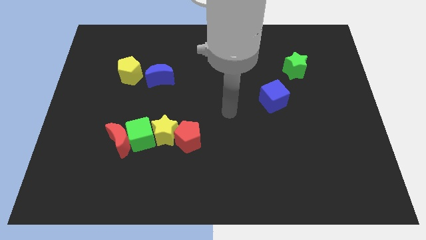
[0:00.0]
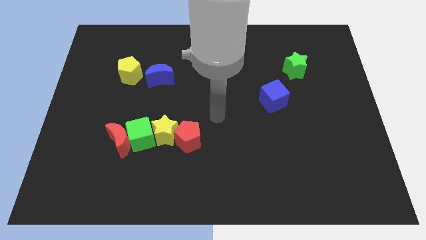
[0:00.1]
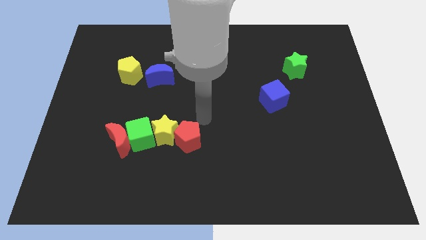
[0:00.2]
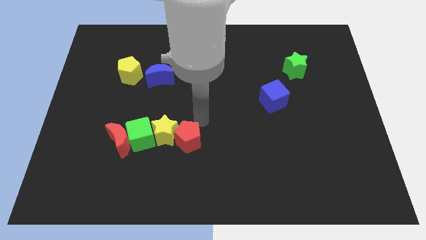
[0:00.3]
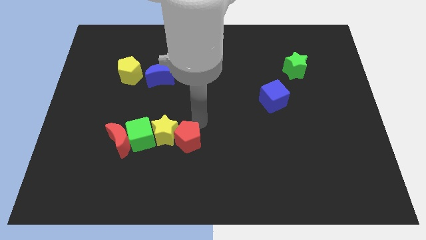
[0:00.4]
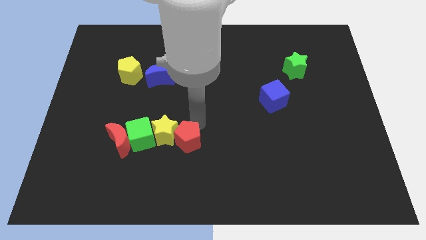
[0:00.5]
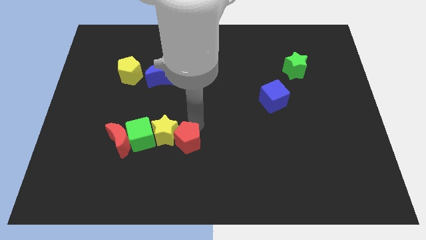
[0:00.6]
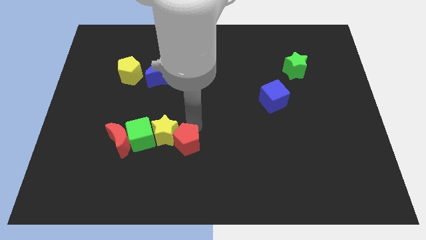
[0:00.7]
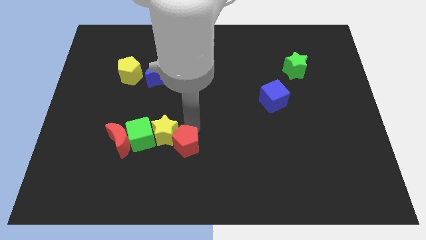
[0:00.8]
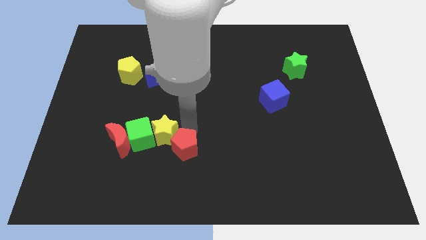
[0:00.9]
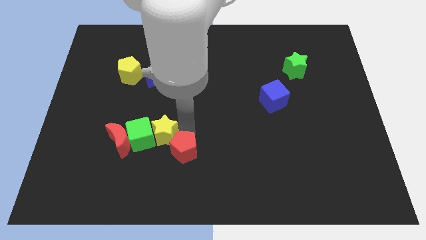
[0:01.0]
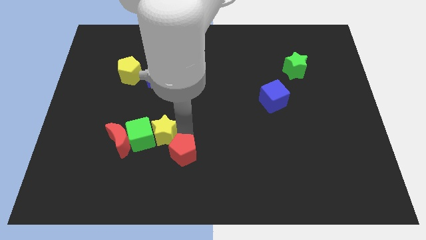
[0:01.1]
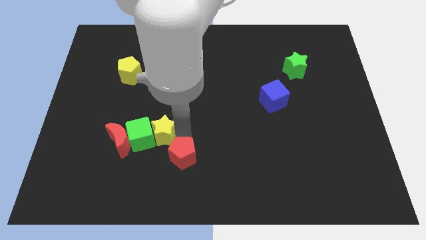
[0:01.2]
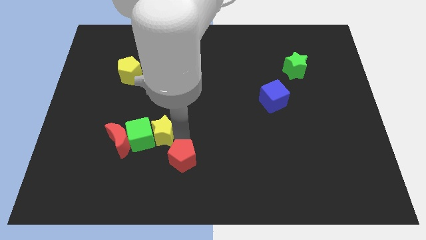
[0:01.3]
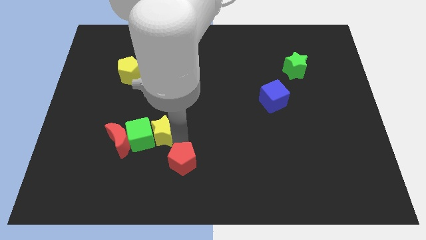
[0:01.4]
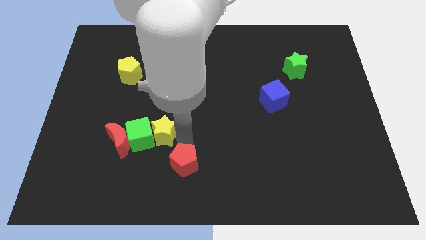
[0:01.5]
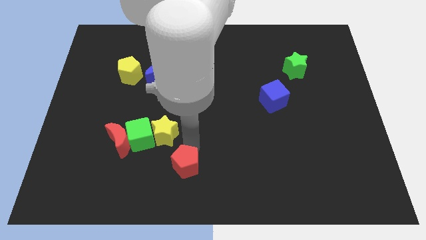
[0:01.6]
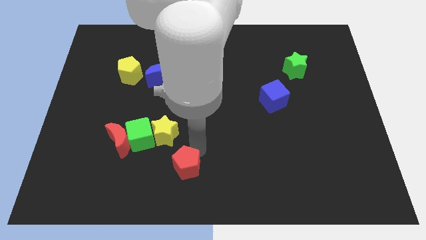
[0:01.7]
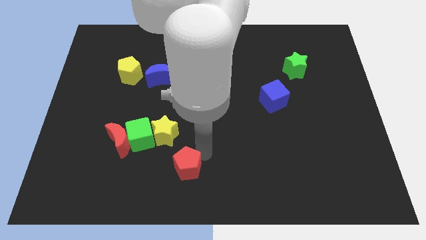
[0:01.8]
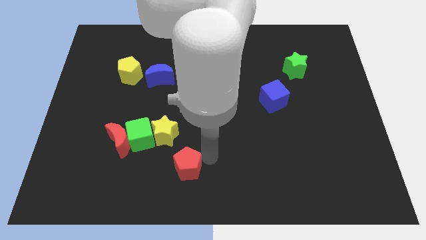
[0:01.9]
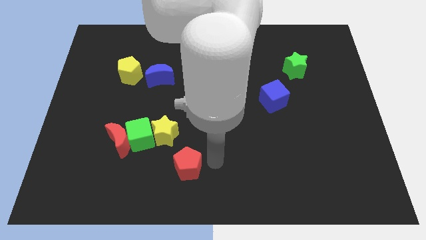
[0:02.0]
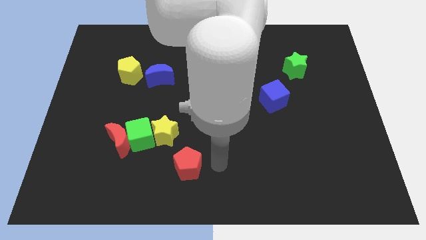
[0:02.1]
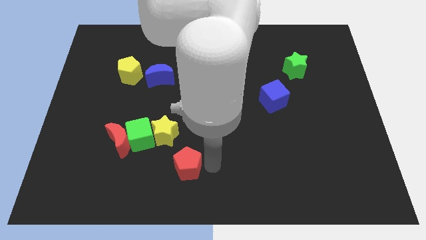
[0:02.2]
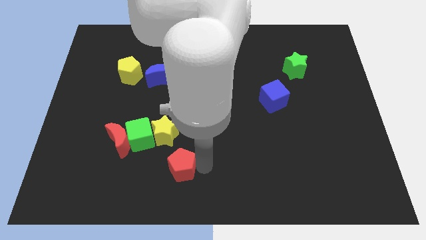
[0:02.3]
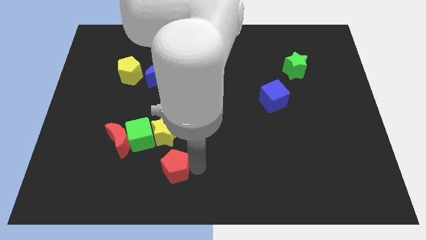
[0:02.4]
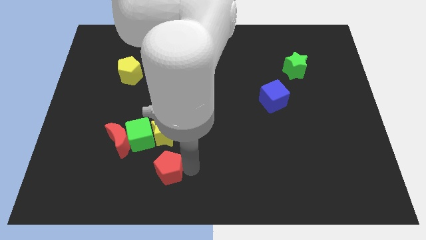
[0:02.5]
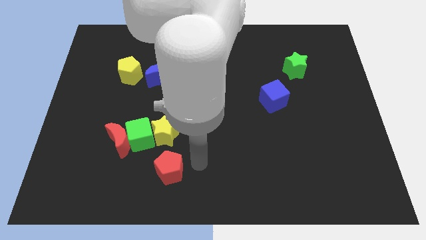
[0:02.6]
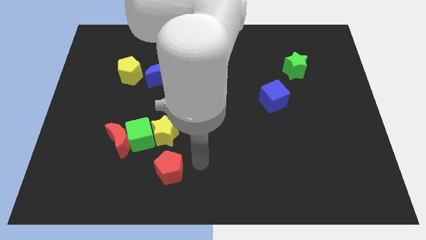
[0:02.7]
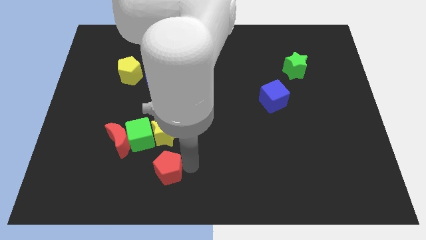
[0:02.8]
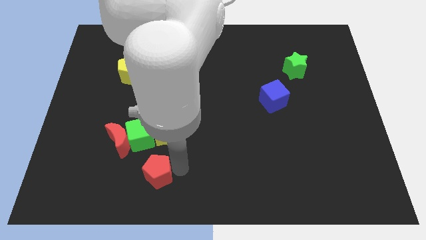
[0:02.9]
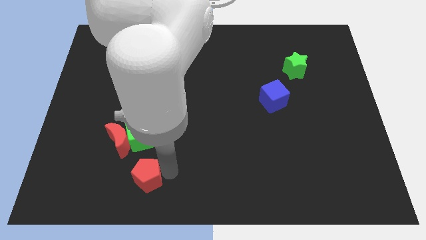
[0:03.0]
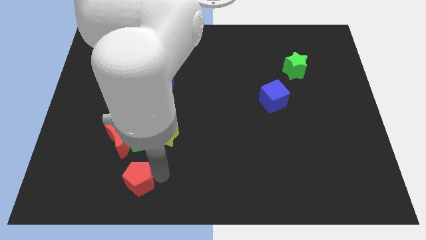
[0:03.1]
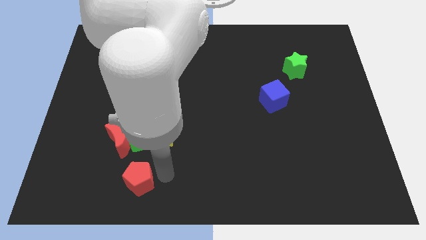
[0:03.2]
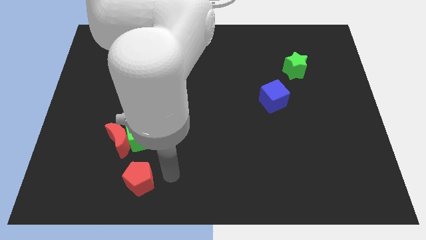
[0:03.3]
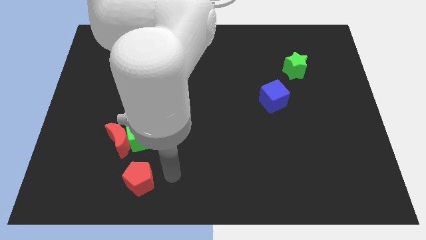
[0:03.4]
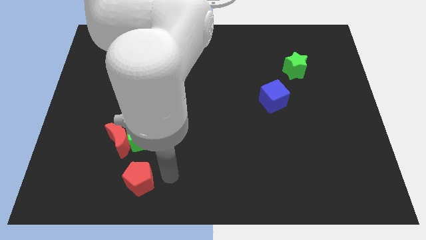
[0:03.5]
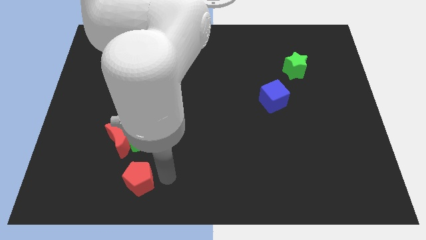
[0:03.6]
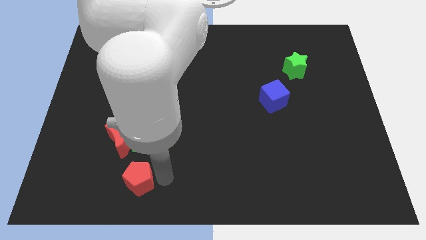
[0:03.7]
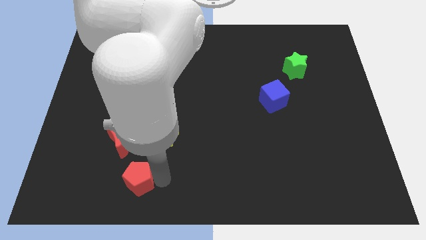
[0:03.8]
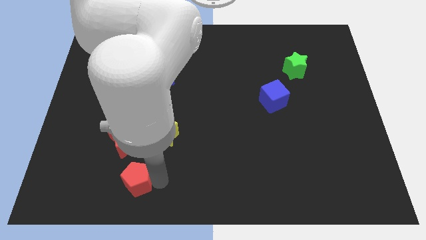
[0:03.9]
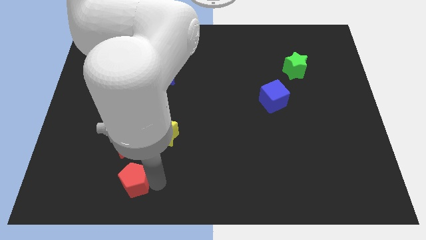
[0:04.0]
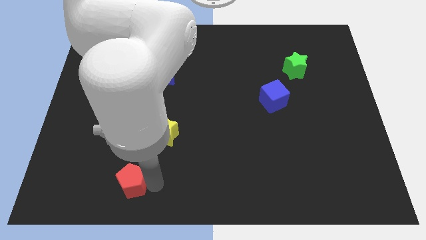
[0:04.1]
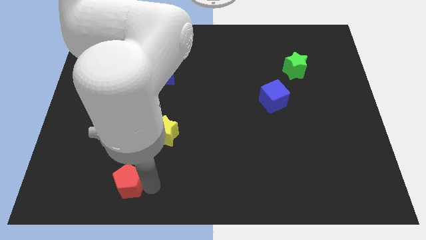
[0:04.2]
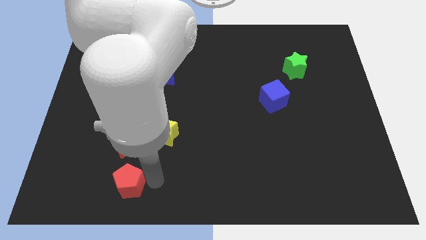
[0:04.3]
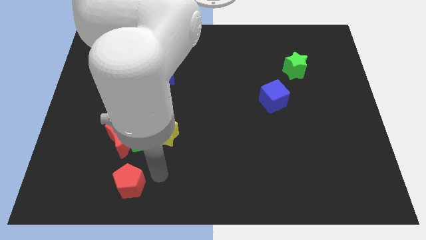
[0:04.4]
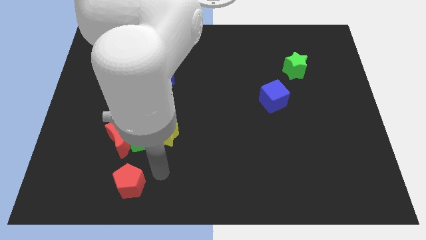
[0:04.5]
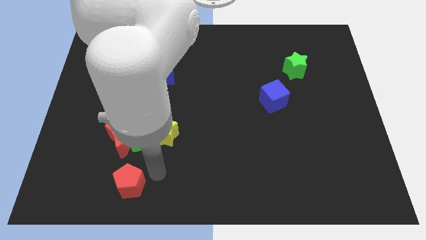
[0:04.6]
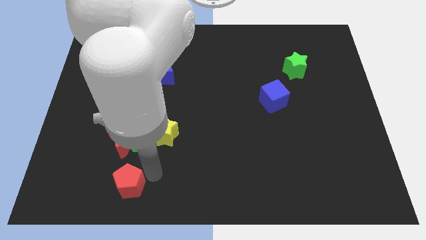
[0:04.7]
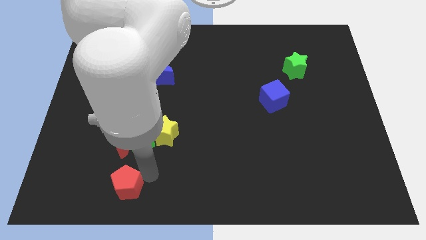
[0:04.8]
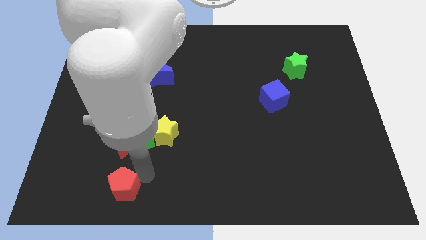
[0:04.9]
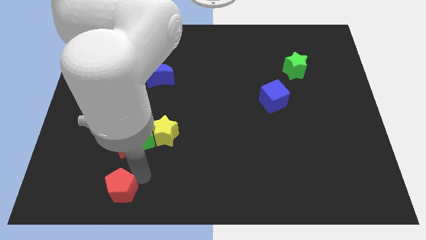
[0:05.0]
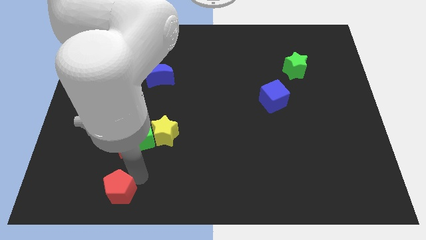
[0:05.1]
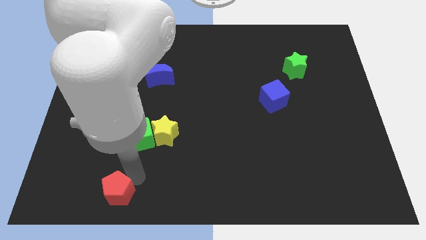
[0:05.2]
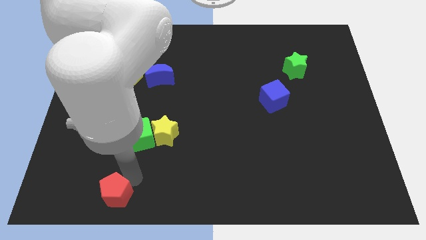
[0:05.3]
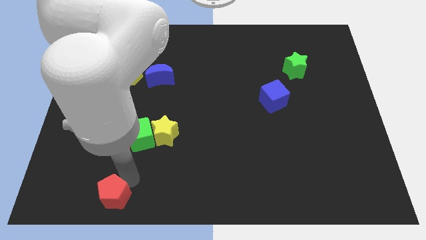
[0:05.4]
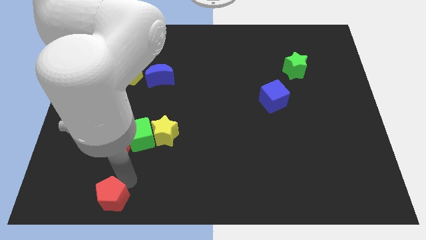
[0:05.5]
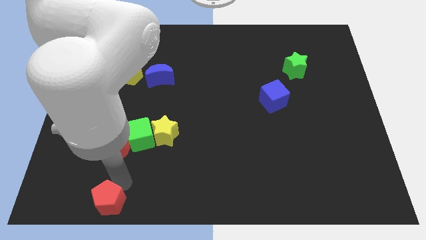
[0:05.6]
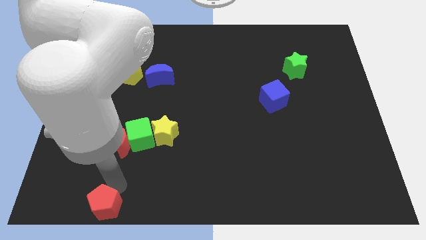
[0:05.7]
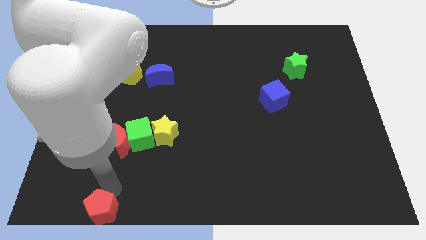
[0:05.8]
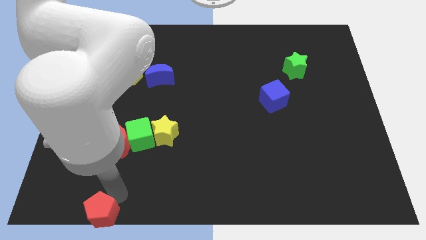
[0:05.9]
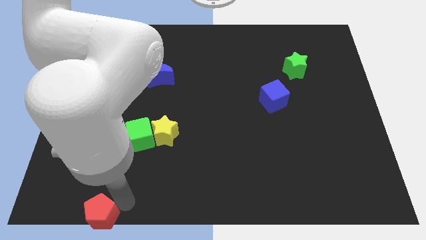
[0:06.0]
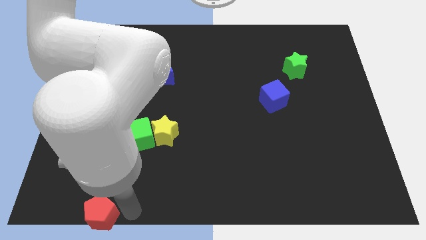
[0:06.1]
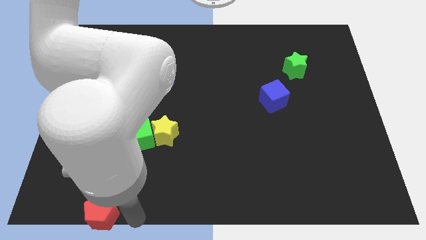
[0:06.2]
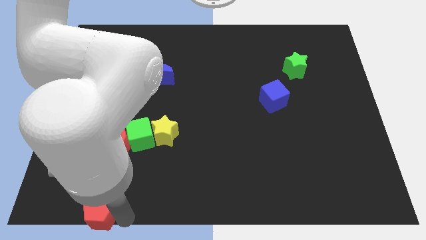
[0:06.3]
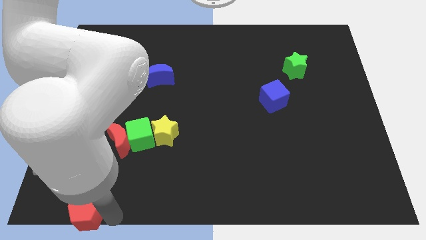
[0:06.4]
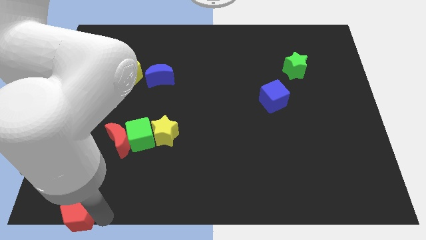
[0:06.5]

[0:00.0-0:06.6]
move the red pentagon to the bottom left

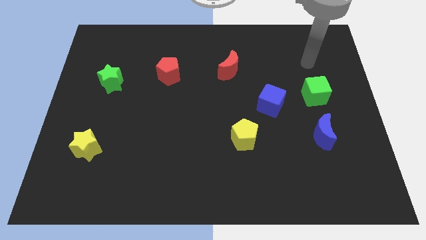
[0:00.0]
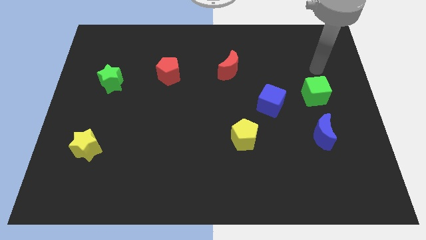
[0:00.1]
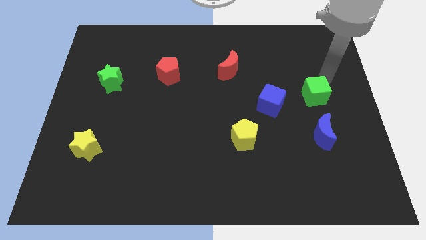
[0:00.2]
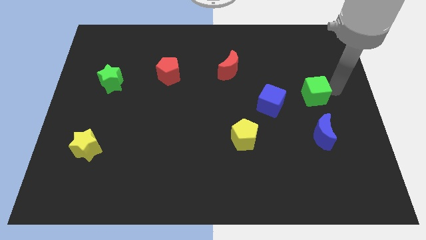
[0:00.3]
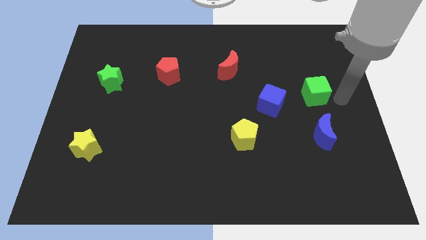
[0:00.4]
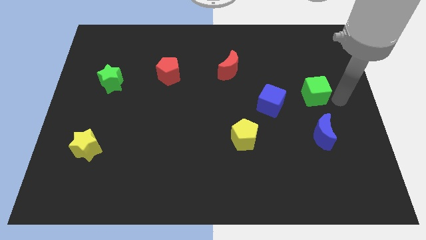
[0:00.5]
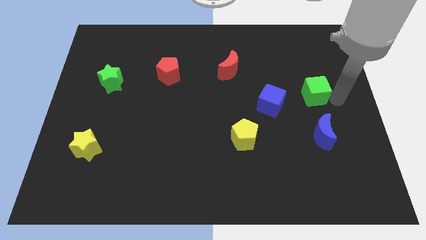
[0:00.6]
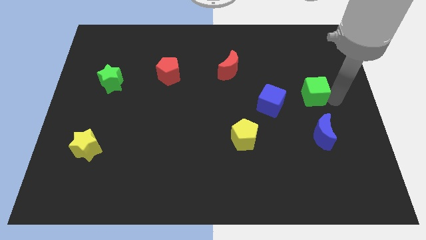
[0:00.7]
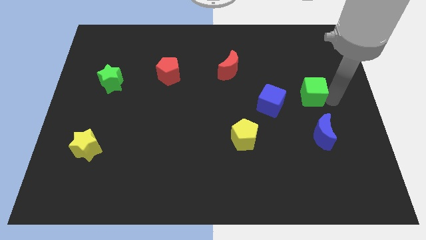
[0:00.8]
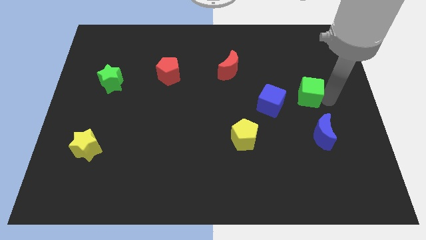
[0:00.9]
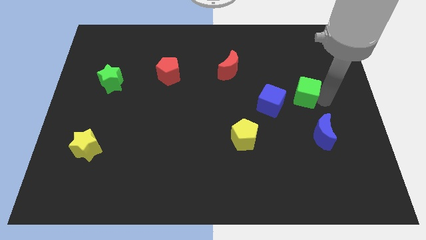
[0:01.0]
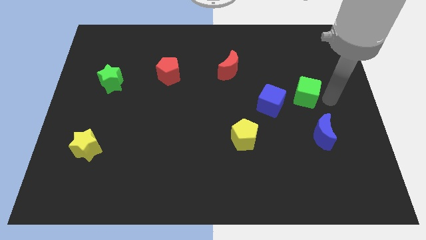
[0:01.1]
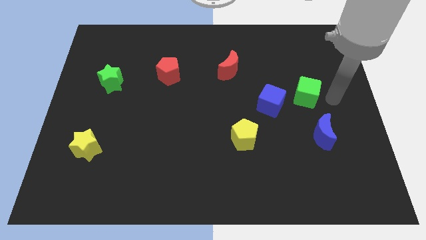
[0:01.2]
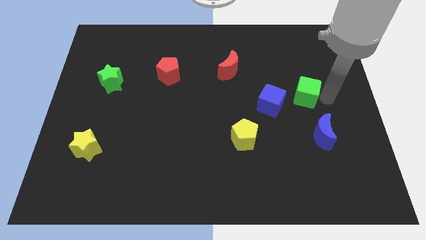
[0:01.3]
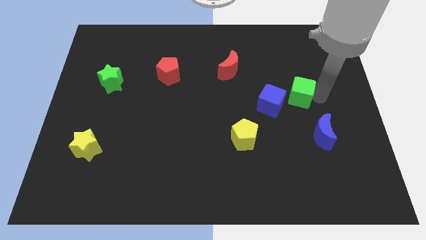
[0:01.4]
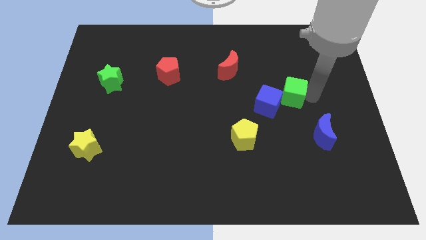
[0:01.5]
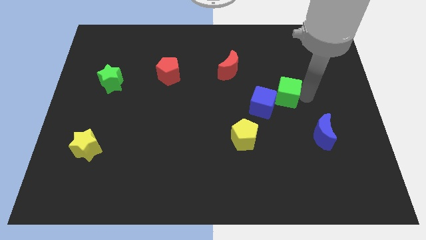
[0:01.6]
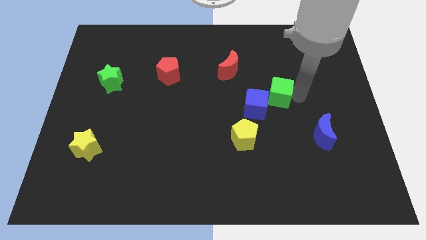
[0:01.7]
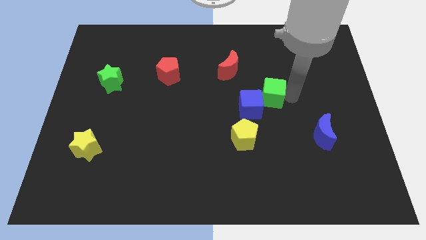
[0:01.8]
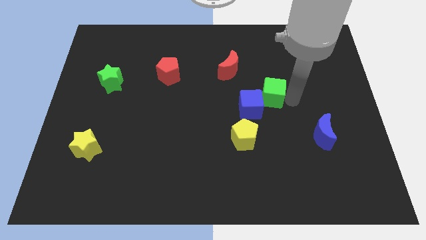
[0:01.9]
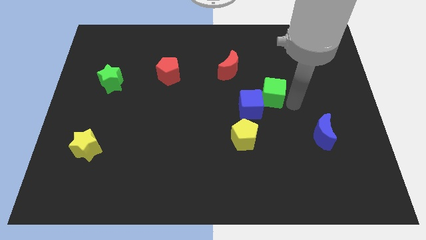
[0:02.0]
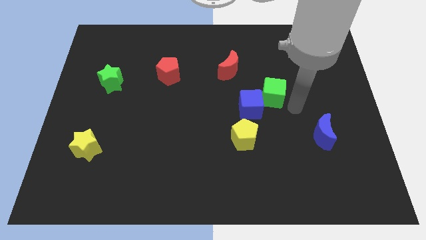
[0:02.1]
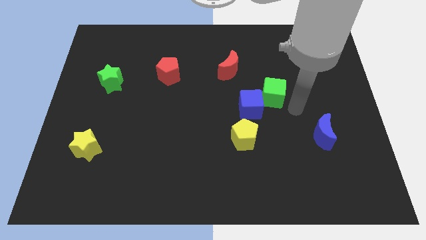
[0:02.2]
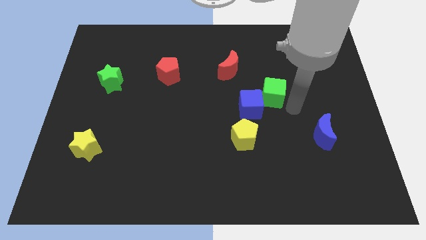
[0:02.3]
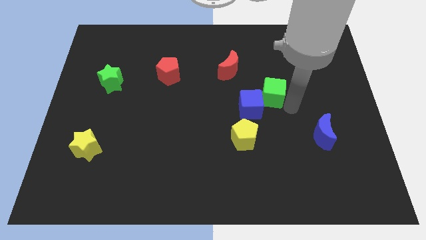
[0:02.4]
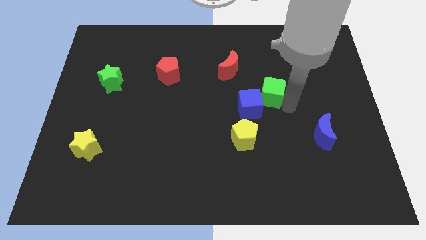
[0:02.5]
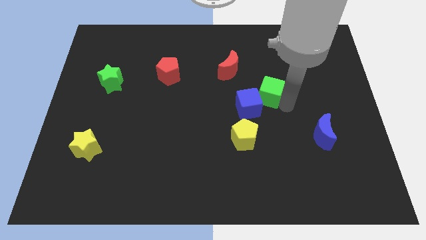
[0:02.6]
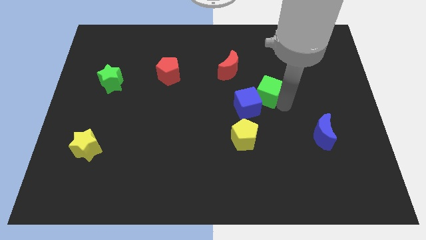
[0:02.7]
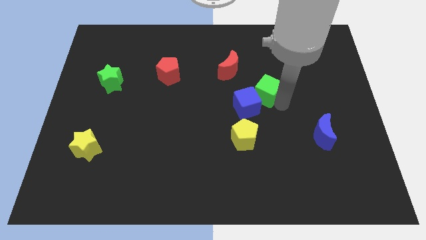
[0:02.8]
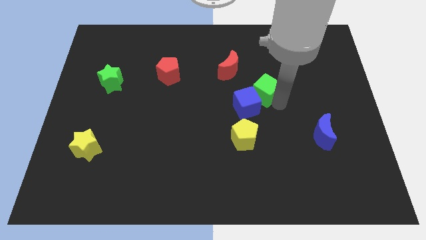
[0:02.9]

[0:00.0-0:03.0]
move the green cube to the center of the board
